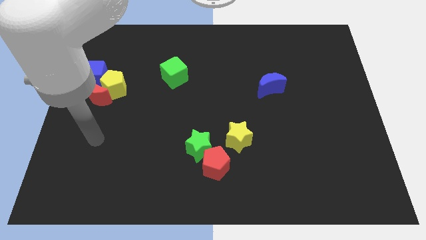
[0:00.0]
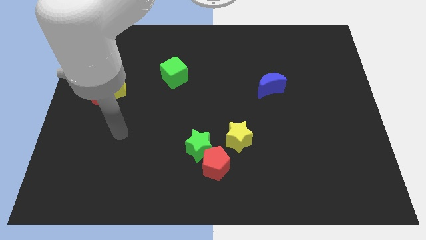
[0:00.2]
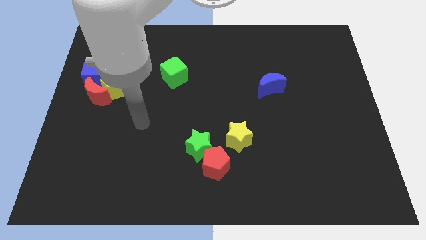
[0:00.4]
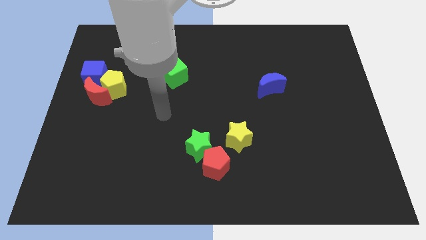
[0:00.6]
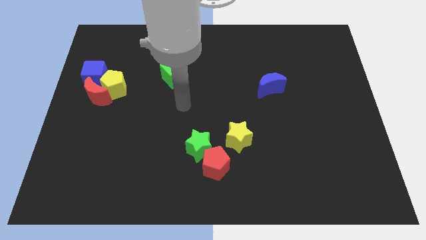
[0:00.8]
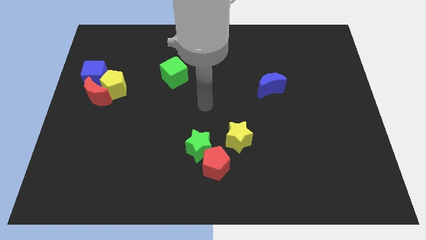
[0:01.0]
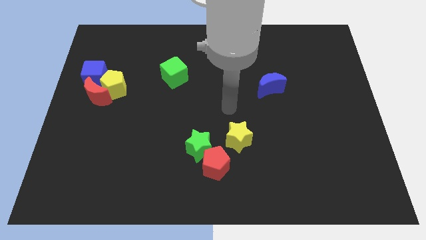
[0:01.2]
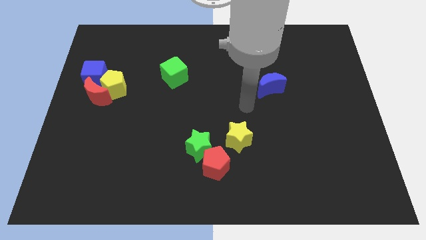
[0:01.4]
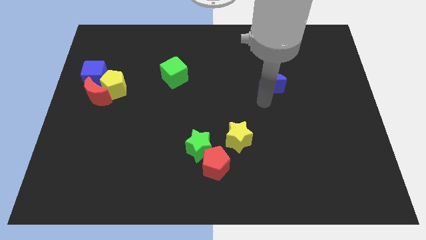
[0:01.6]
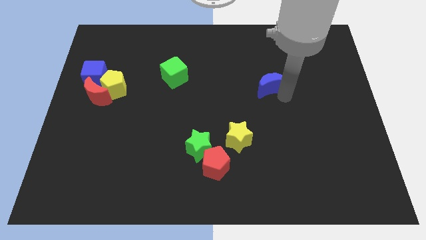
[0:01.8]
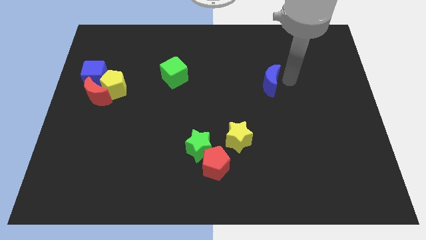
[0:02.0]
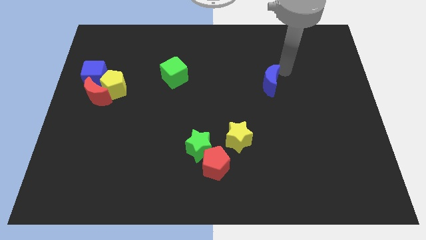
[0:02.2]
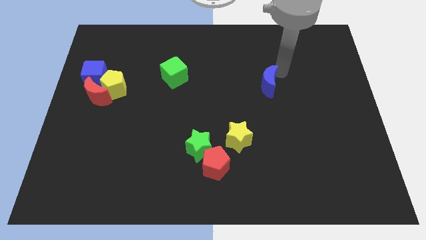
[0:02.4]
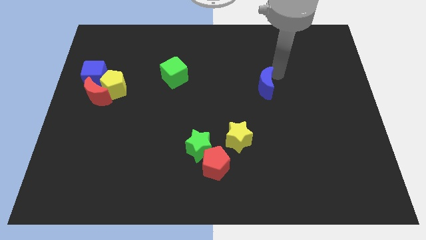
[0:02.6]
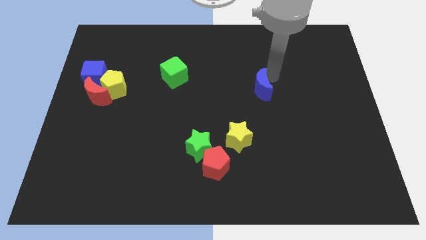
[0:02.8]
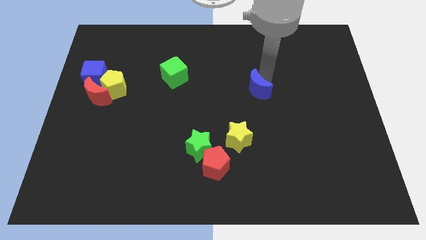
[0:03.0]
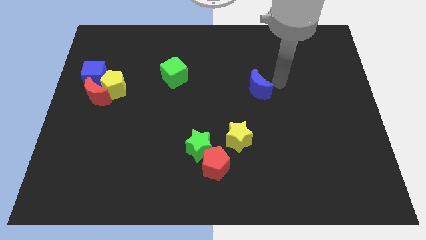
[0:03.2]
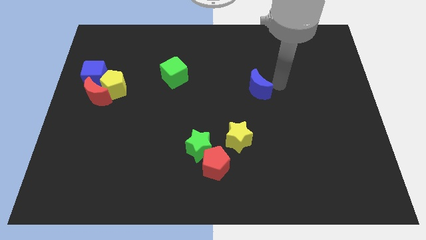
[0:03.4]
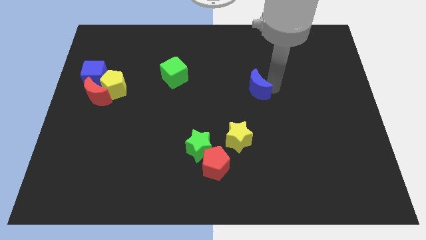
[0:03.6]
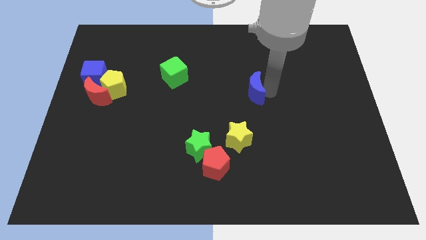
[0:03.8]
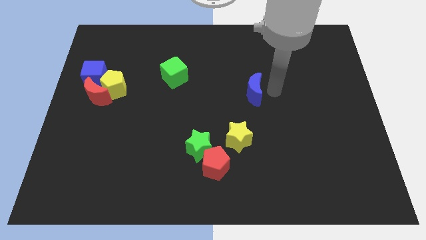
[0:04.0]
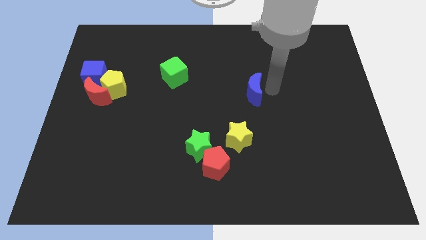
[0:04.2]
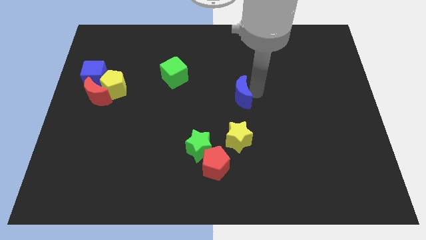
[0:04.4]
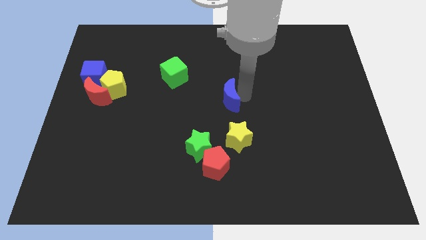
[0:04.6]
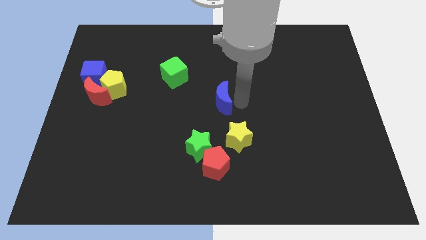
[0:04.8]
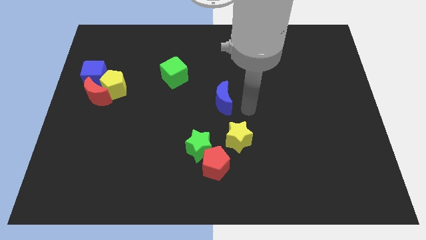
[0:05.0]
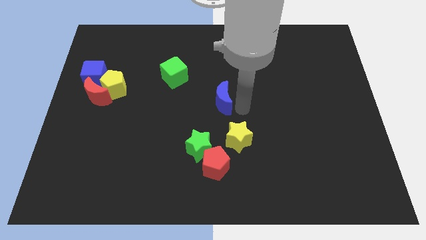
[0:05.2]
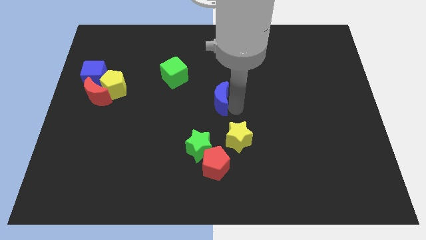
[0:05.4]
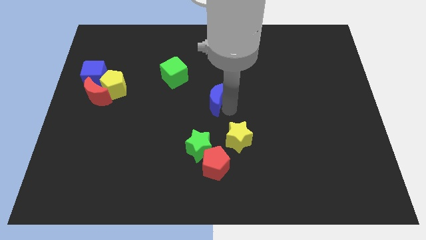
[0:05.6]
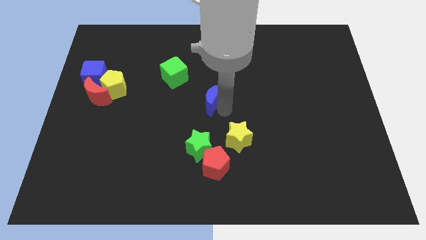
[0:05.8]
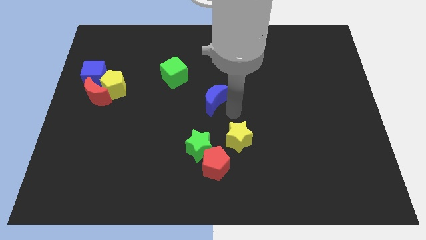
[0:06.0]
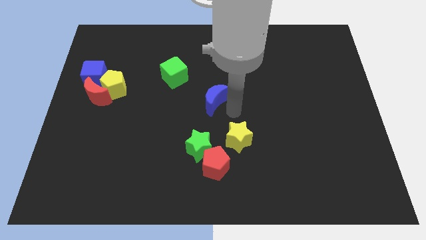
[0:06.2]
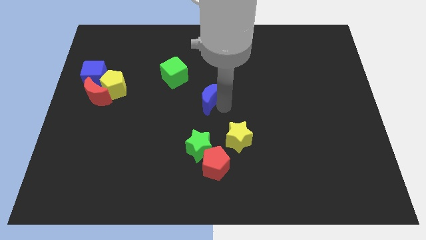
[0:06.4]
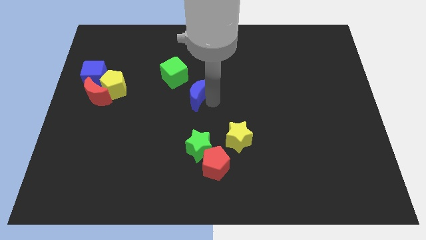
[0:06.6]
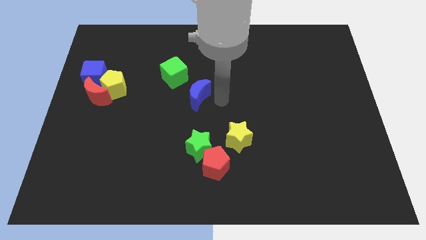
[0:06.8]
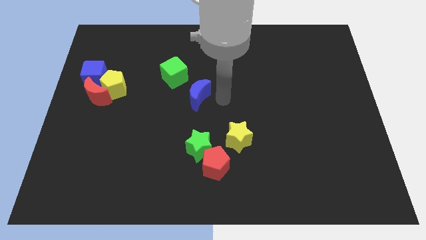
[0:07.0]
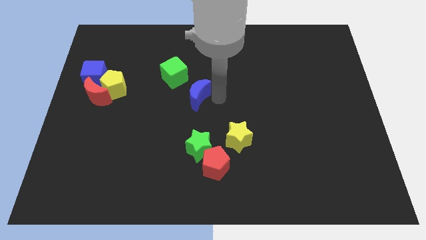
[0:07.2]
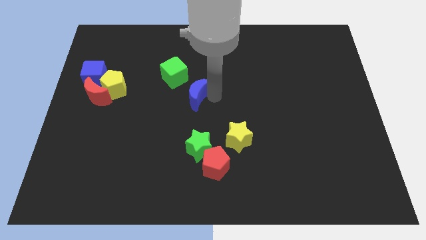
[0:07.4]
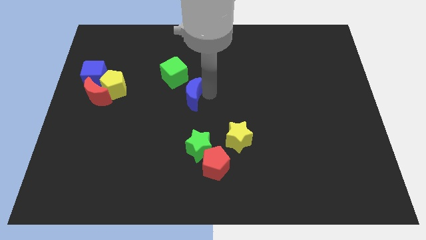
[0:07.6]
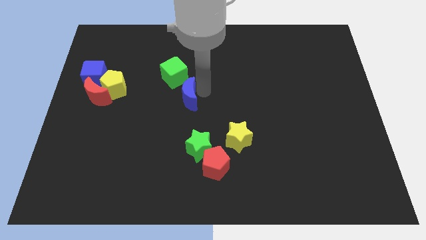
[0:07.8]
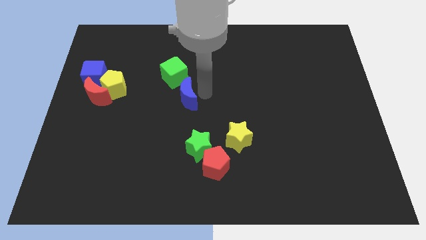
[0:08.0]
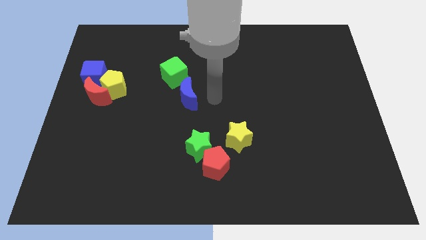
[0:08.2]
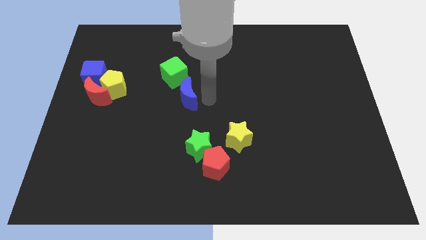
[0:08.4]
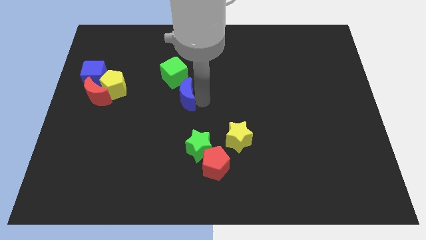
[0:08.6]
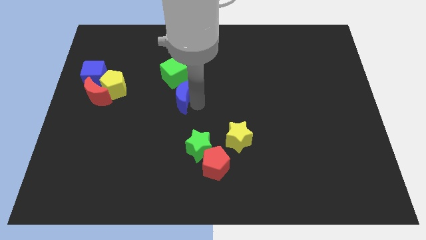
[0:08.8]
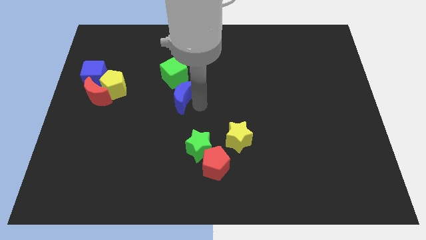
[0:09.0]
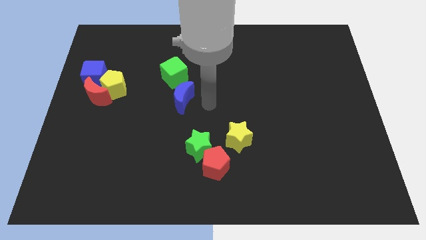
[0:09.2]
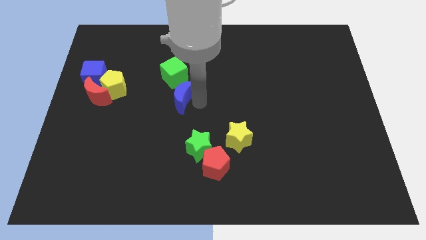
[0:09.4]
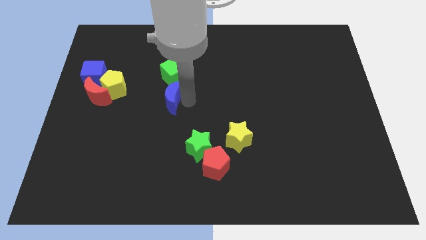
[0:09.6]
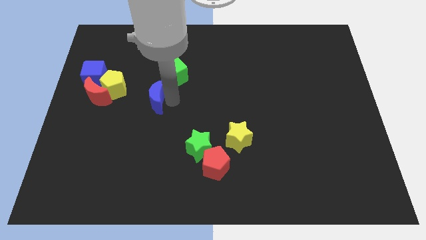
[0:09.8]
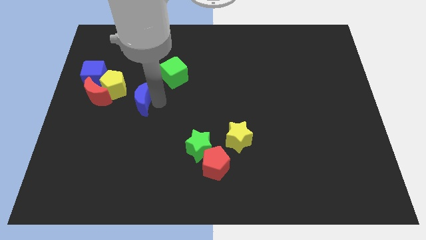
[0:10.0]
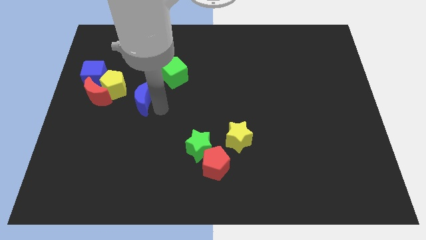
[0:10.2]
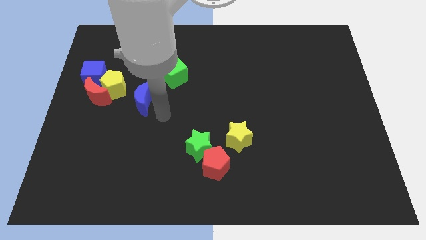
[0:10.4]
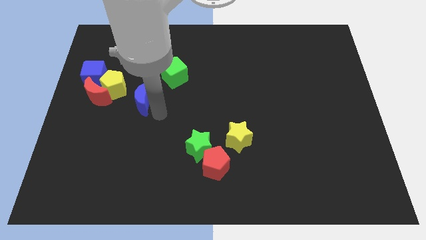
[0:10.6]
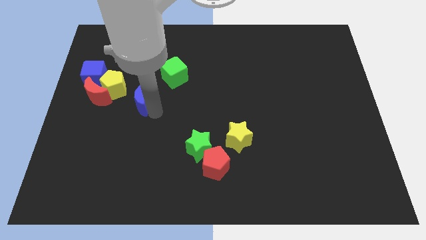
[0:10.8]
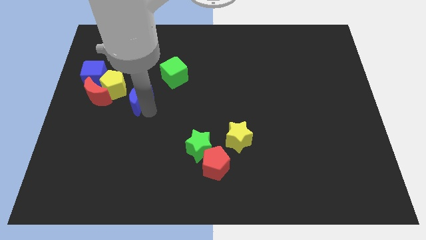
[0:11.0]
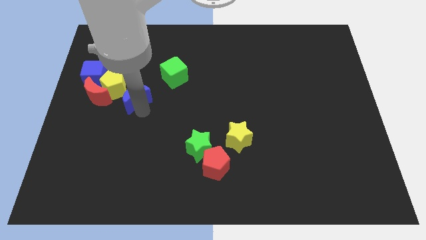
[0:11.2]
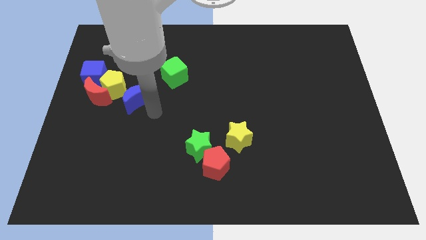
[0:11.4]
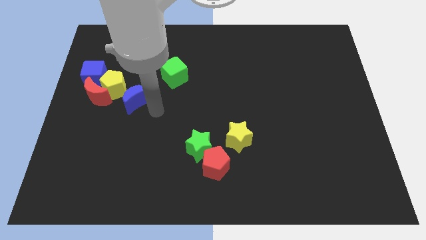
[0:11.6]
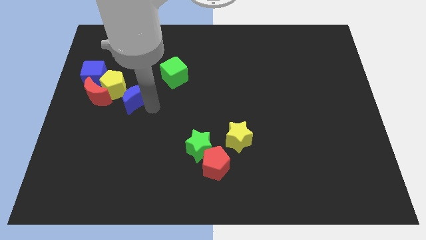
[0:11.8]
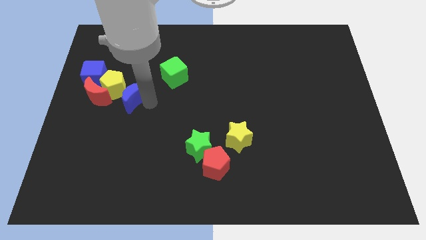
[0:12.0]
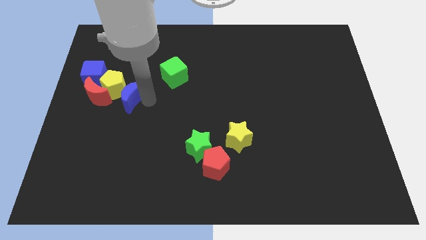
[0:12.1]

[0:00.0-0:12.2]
slide the blue moon close to the yellow pentagon

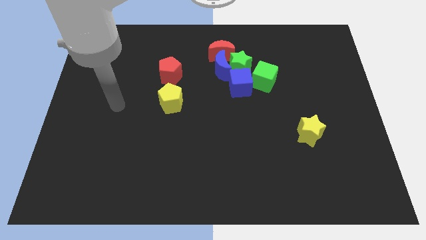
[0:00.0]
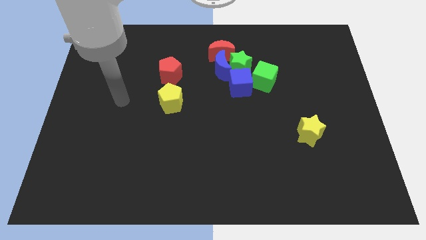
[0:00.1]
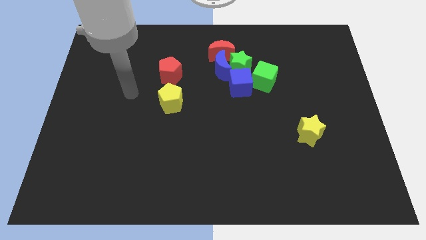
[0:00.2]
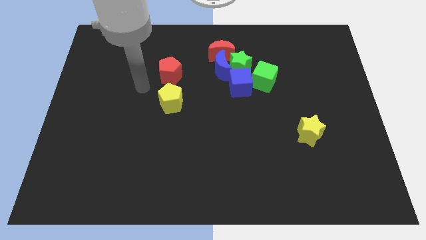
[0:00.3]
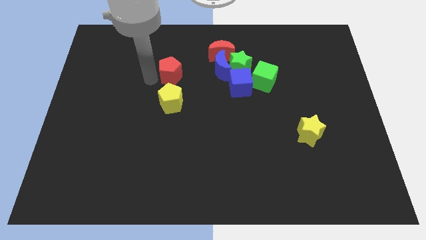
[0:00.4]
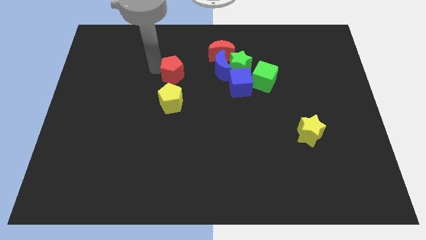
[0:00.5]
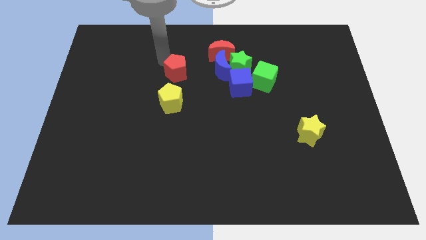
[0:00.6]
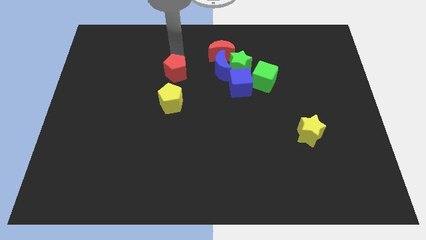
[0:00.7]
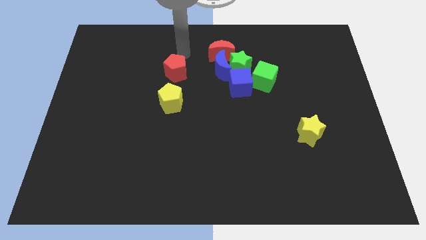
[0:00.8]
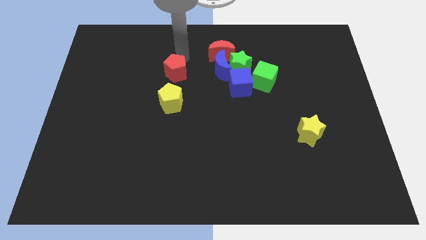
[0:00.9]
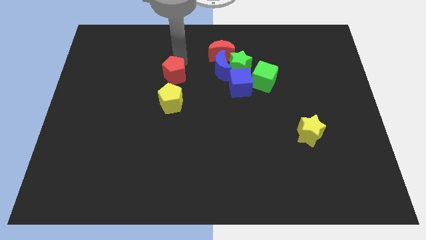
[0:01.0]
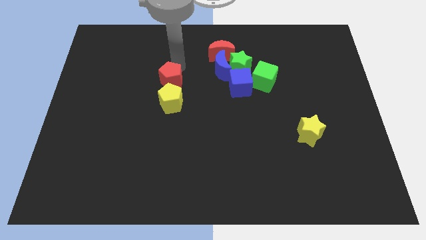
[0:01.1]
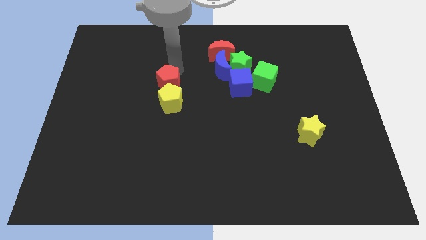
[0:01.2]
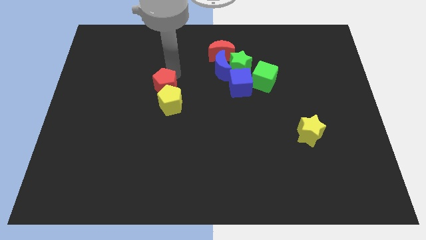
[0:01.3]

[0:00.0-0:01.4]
put the red pentagon towards the yellow pentagon
